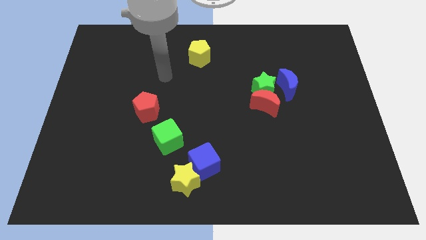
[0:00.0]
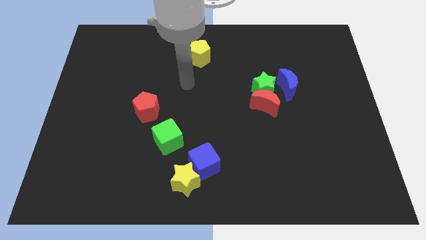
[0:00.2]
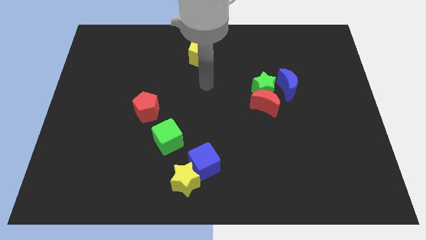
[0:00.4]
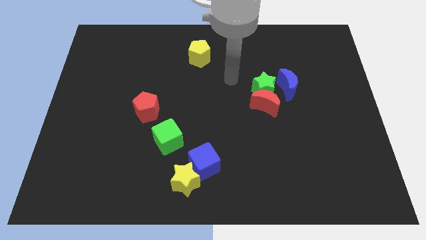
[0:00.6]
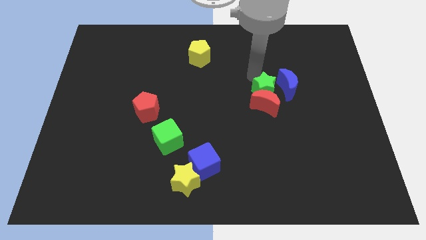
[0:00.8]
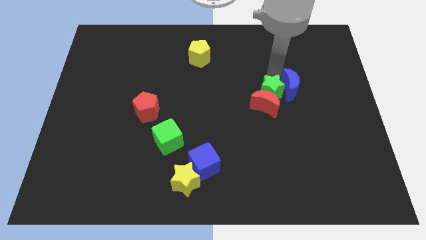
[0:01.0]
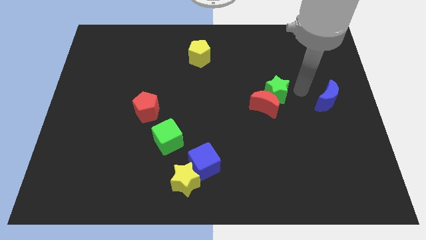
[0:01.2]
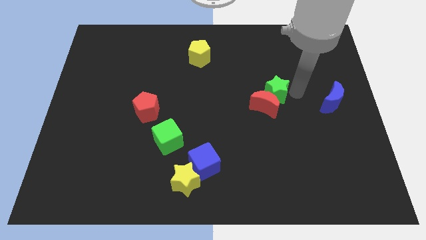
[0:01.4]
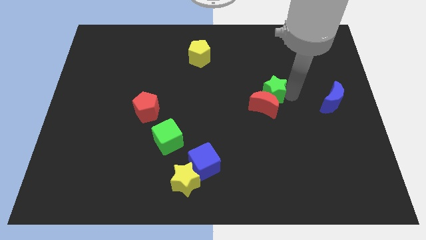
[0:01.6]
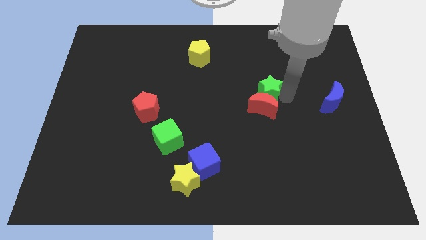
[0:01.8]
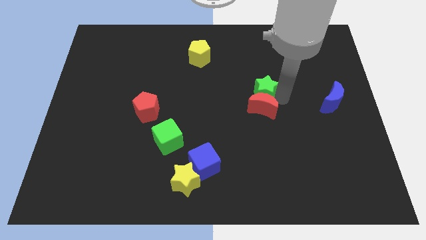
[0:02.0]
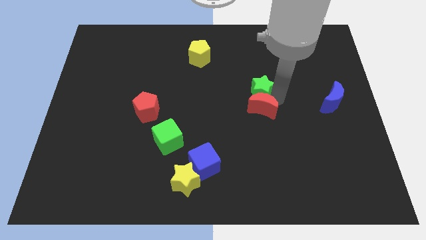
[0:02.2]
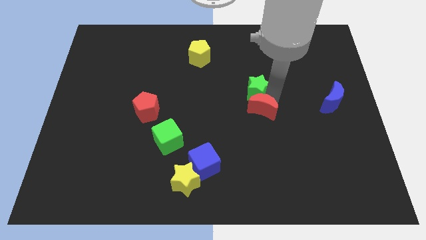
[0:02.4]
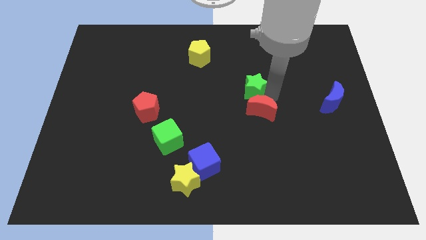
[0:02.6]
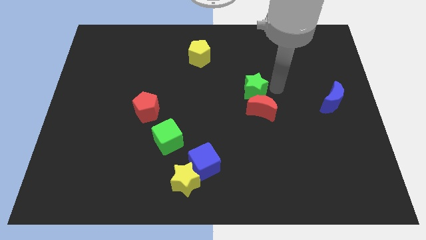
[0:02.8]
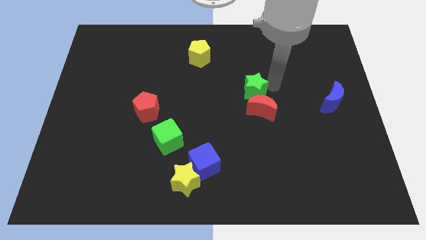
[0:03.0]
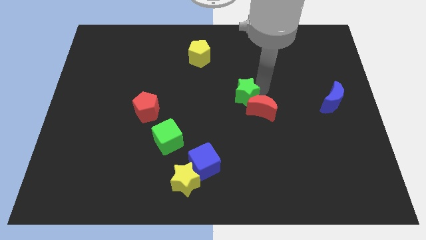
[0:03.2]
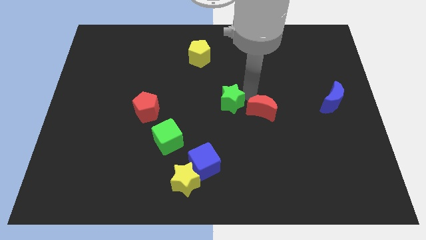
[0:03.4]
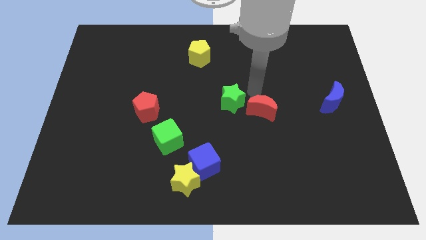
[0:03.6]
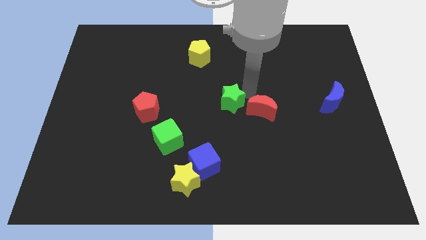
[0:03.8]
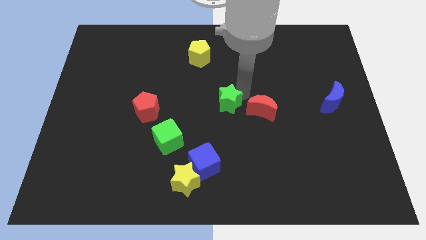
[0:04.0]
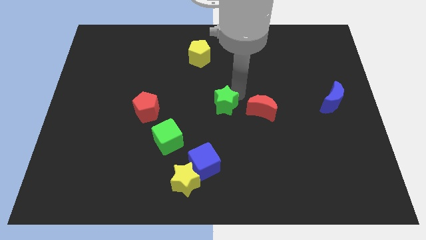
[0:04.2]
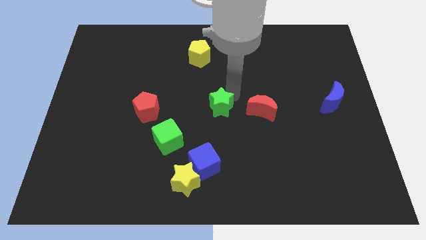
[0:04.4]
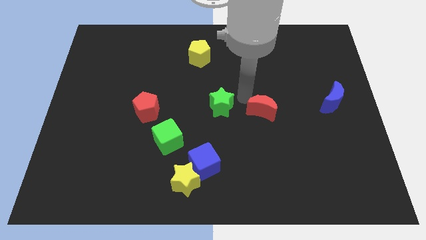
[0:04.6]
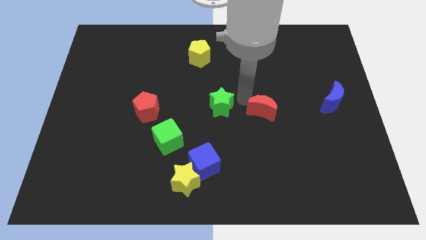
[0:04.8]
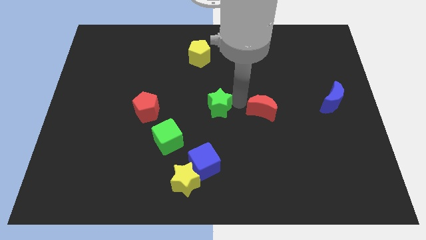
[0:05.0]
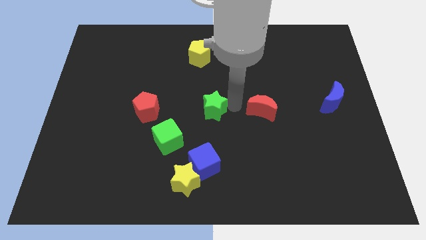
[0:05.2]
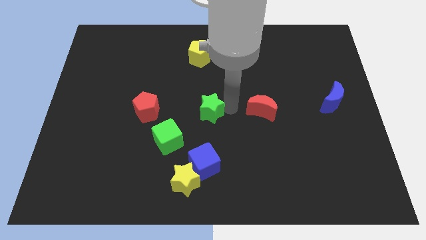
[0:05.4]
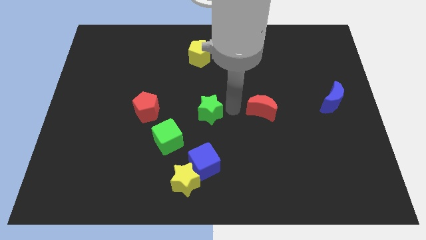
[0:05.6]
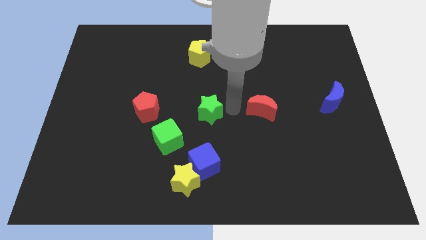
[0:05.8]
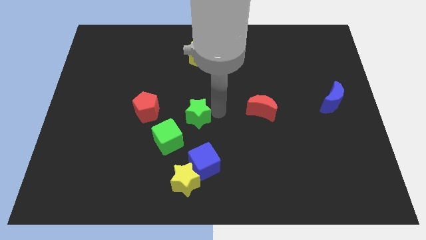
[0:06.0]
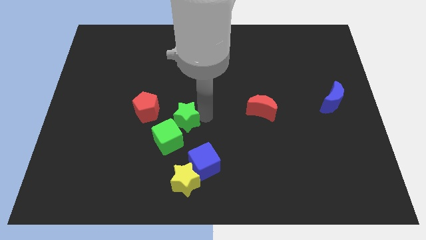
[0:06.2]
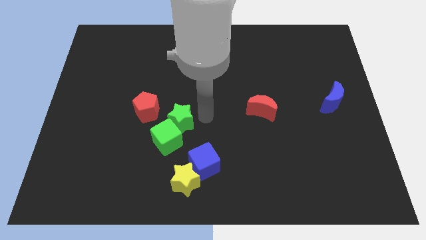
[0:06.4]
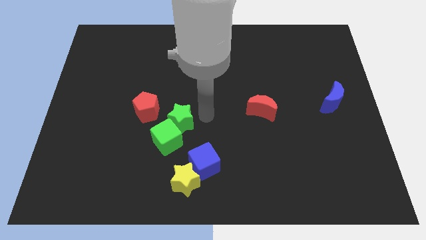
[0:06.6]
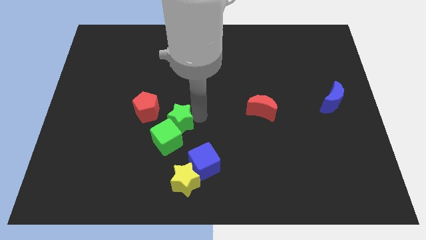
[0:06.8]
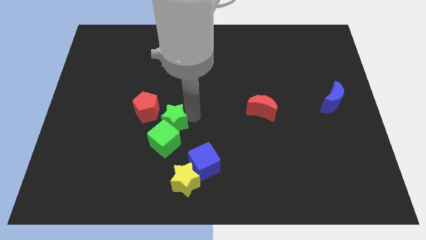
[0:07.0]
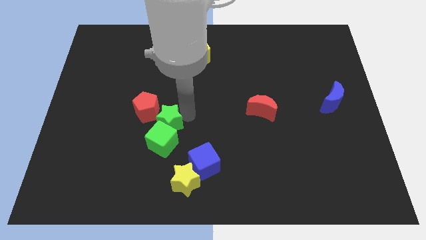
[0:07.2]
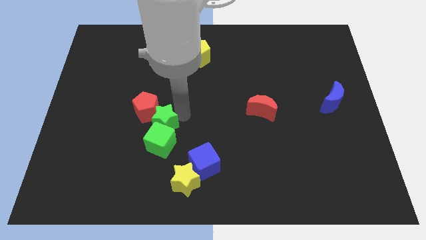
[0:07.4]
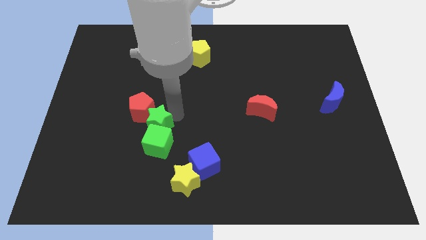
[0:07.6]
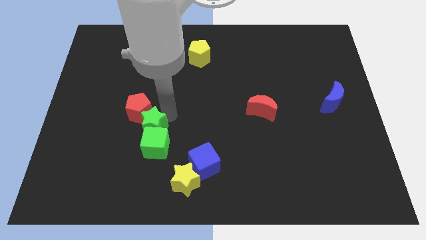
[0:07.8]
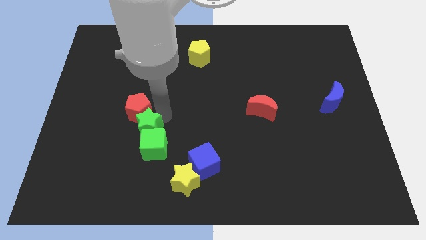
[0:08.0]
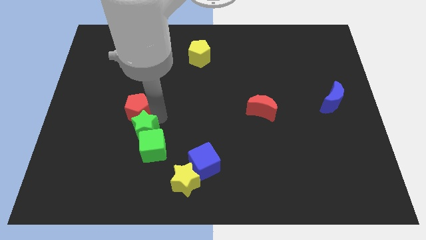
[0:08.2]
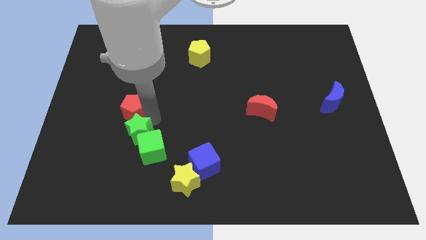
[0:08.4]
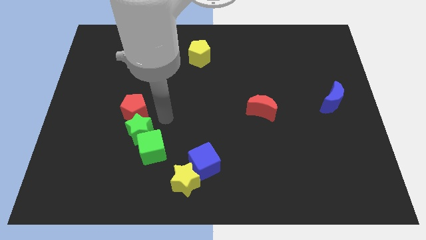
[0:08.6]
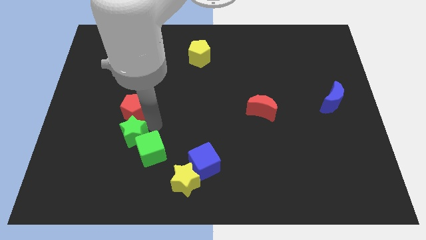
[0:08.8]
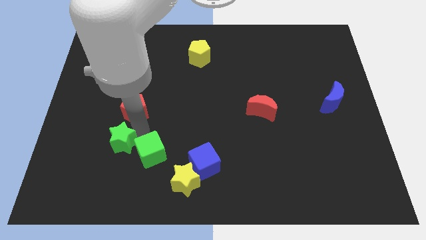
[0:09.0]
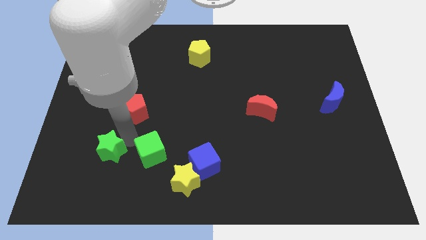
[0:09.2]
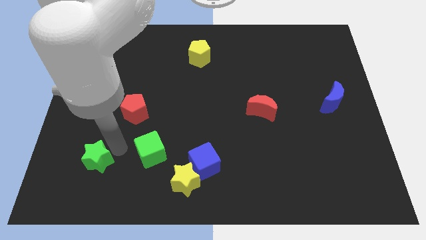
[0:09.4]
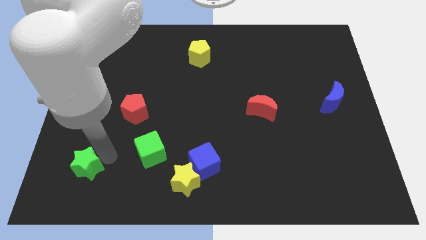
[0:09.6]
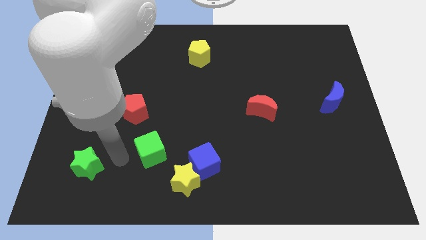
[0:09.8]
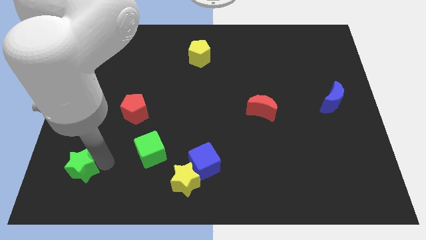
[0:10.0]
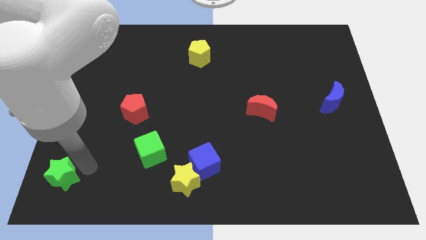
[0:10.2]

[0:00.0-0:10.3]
slide the green star to the bottom left

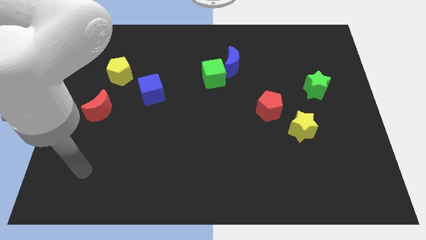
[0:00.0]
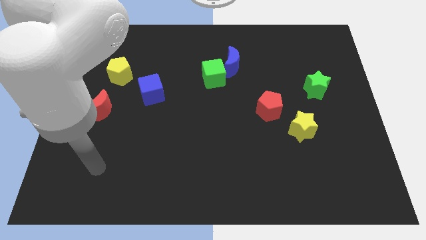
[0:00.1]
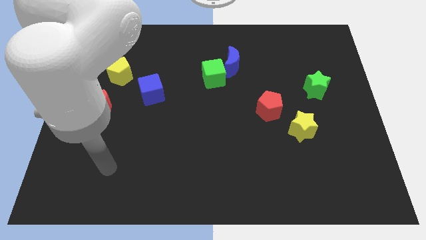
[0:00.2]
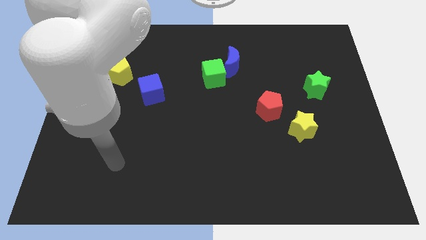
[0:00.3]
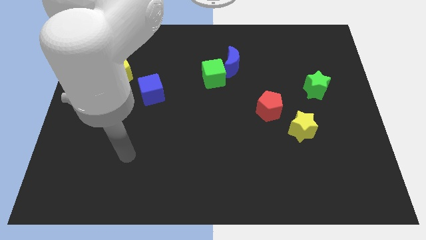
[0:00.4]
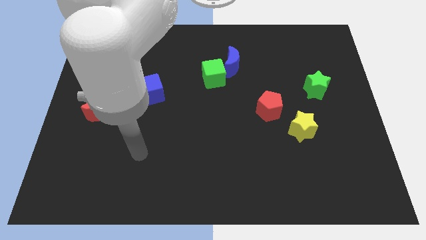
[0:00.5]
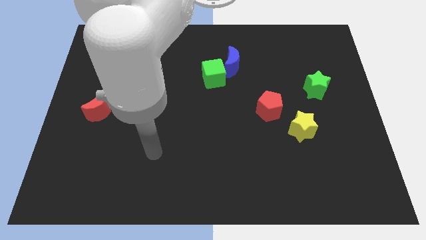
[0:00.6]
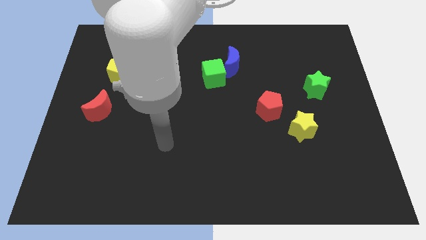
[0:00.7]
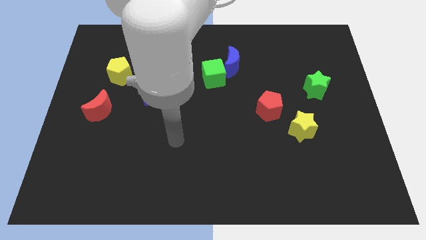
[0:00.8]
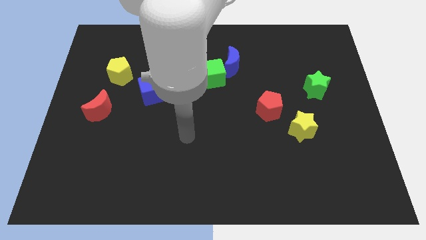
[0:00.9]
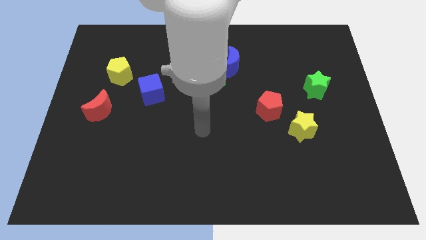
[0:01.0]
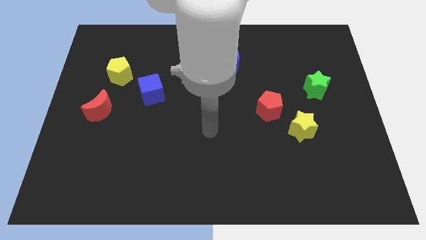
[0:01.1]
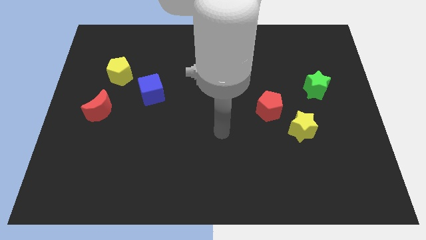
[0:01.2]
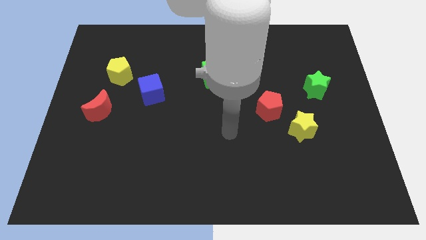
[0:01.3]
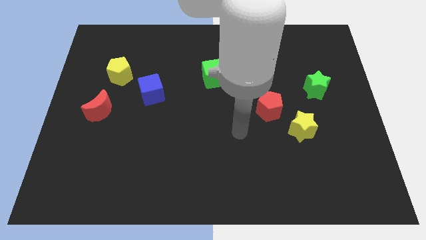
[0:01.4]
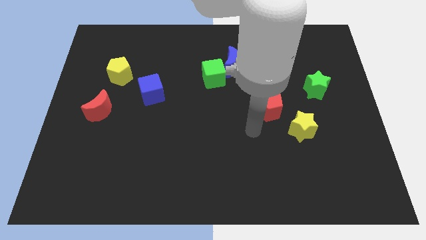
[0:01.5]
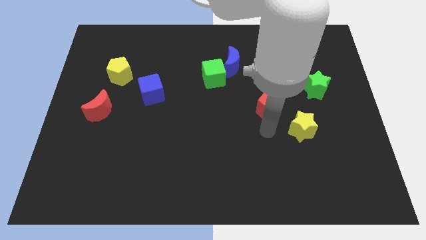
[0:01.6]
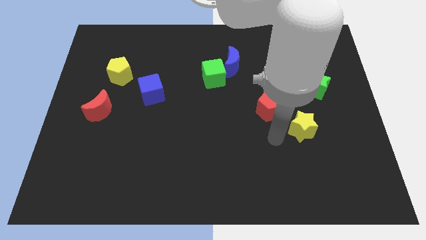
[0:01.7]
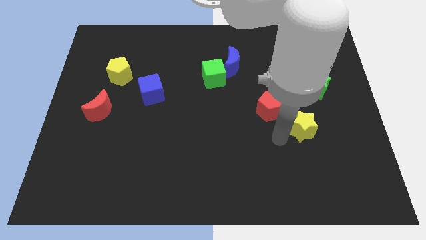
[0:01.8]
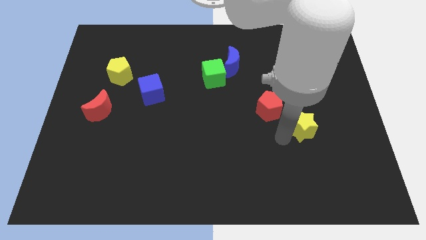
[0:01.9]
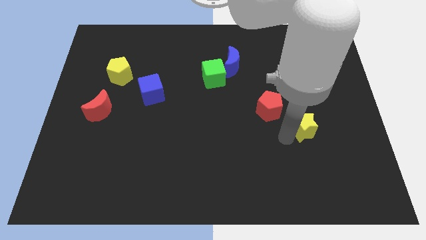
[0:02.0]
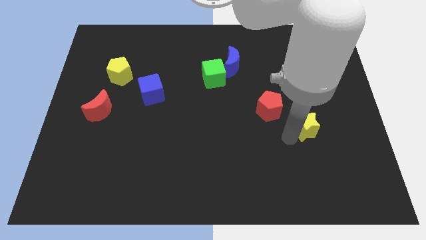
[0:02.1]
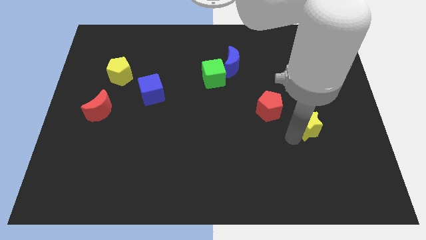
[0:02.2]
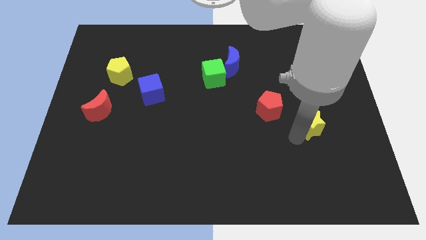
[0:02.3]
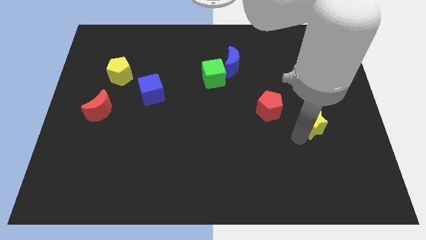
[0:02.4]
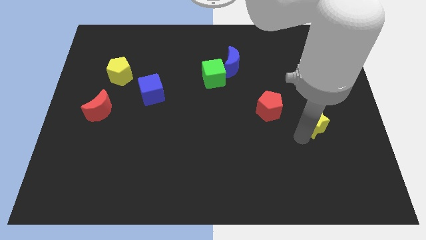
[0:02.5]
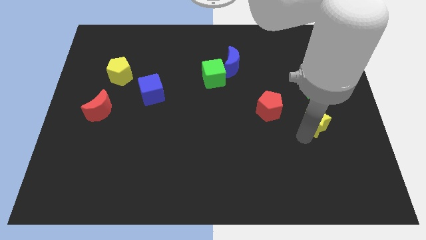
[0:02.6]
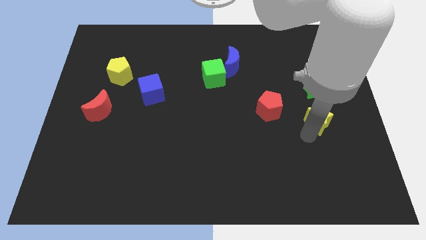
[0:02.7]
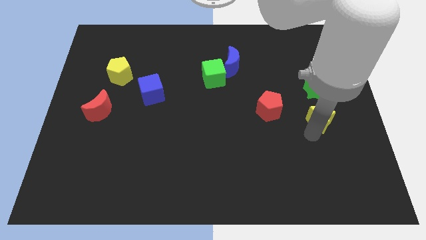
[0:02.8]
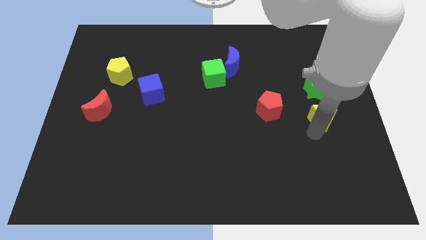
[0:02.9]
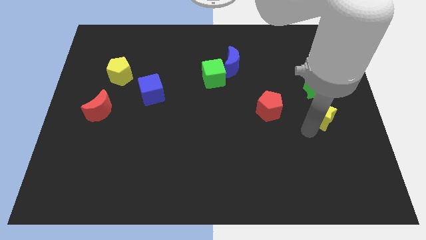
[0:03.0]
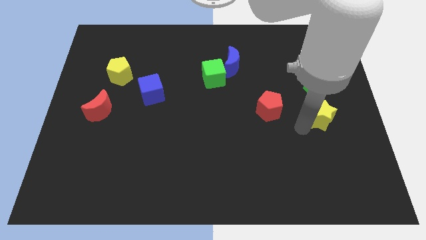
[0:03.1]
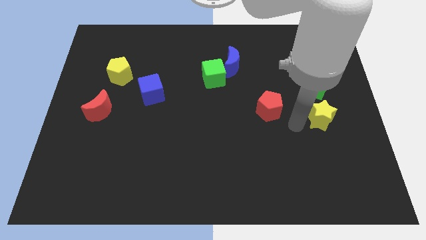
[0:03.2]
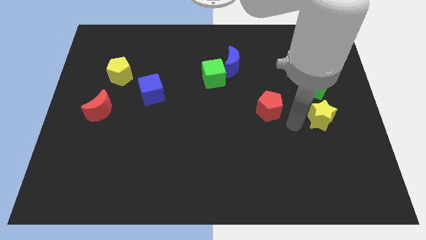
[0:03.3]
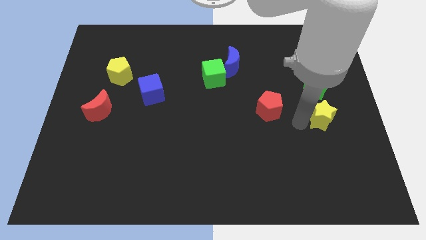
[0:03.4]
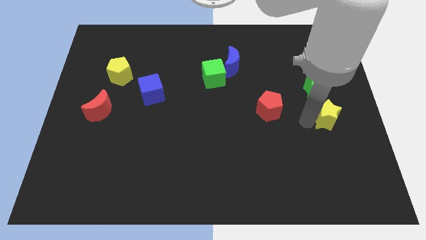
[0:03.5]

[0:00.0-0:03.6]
put the yellow star to the right side
